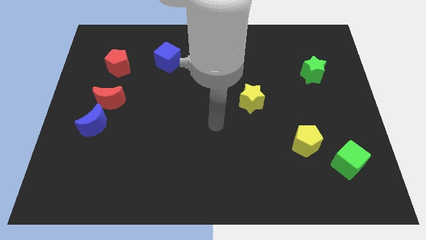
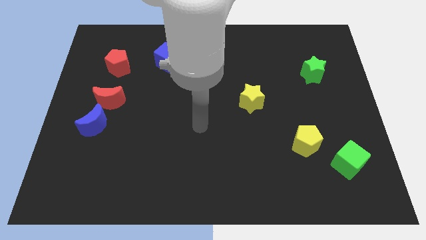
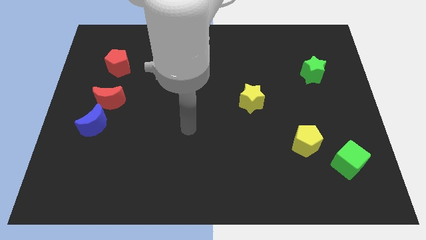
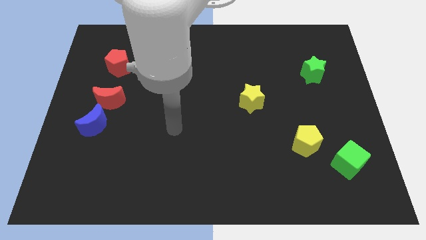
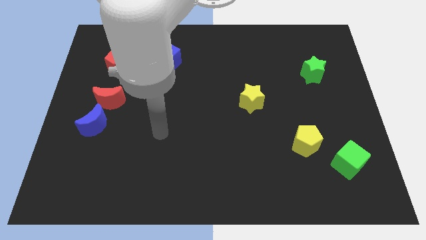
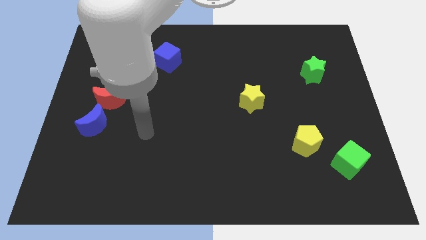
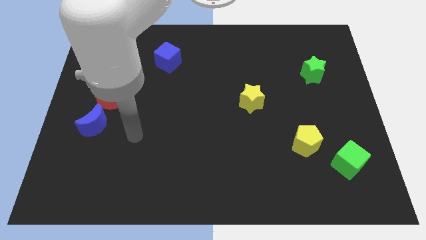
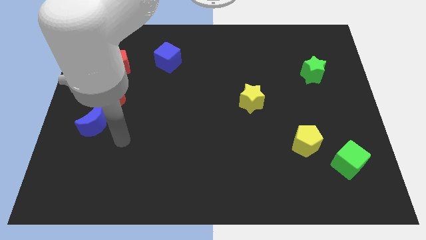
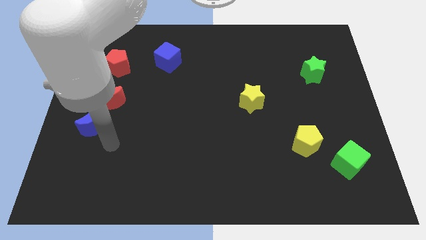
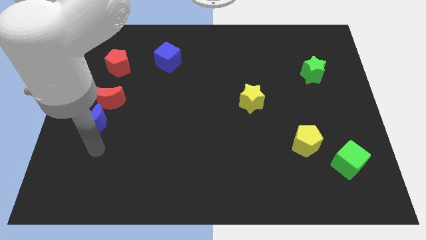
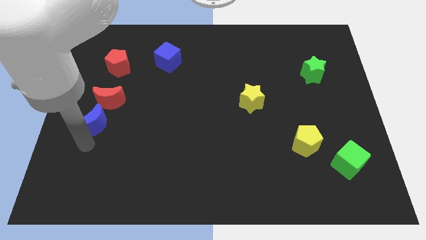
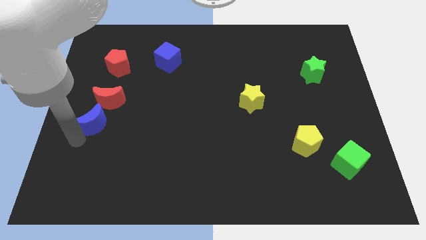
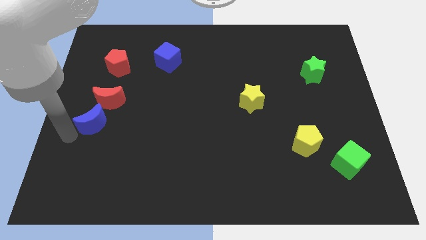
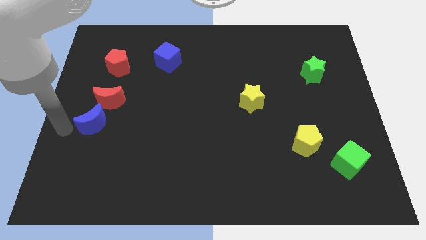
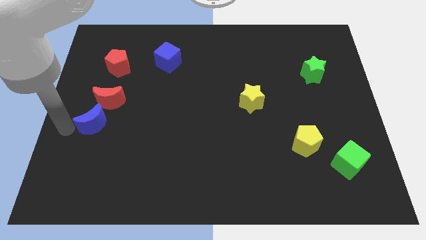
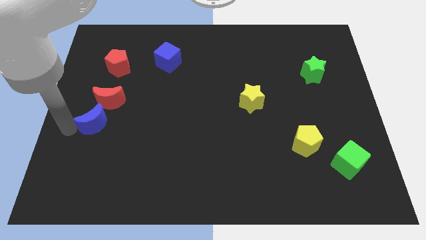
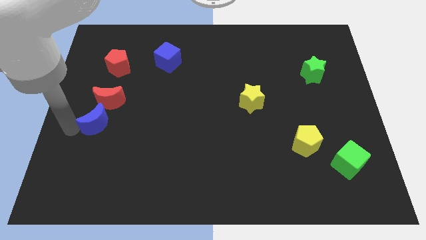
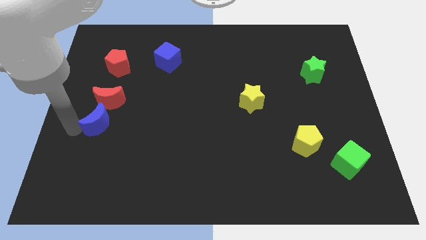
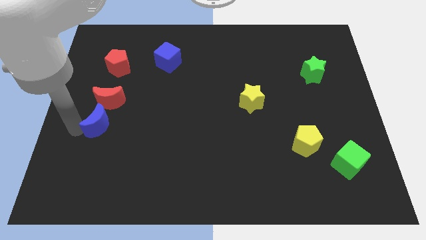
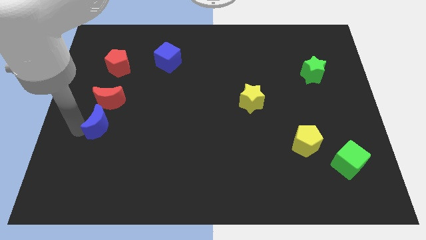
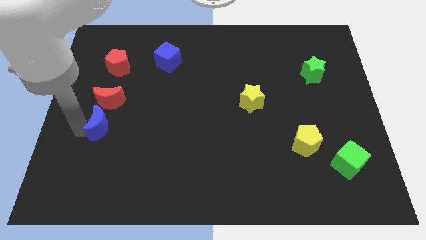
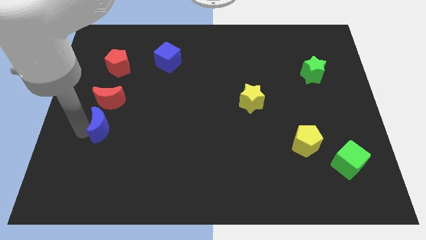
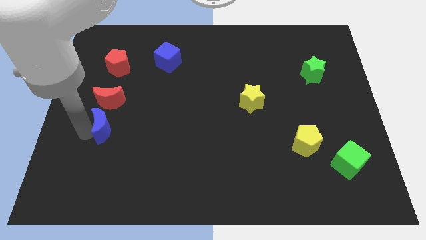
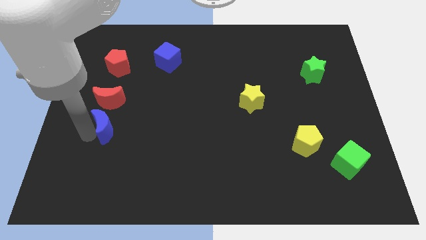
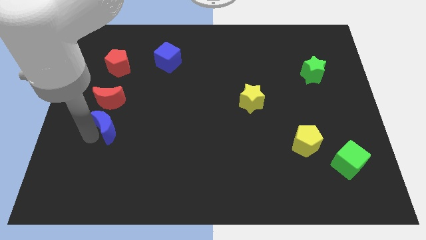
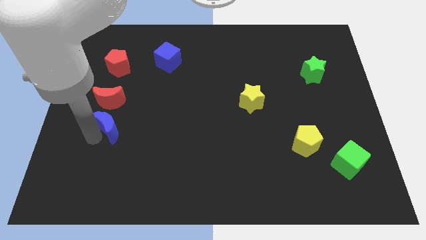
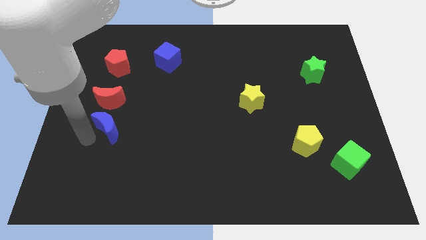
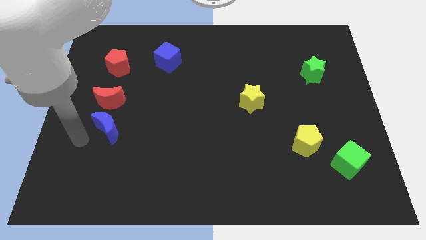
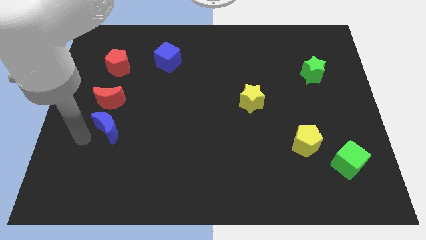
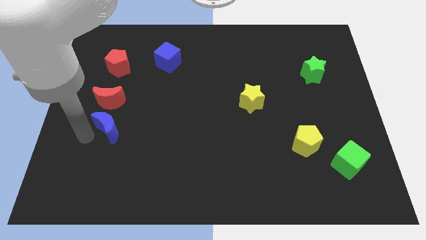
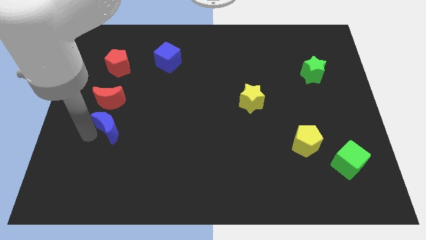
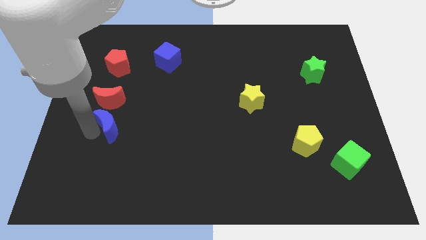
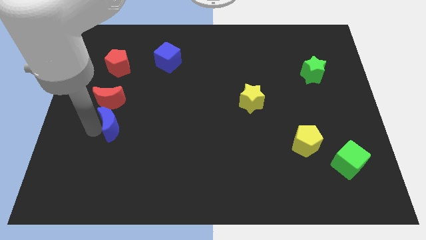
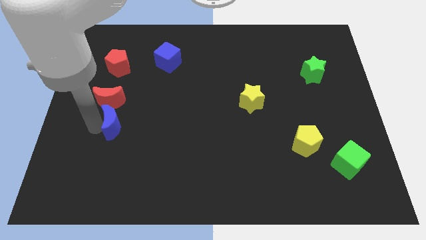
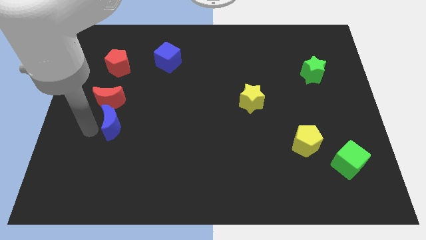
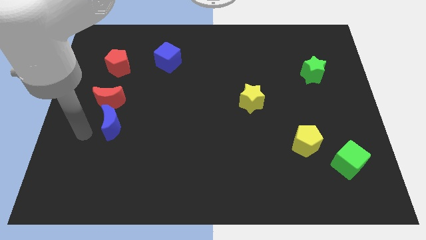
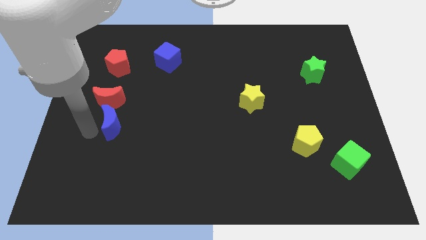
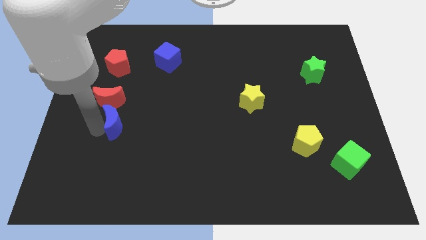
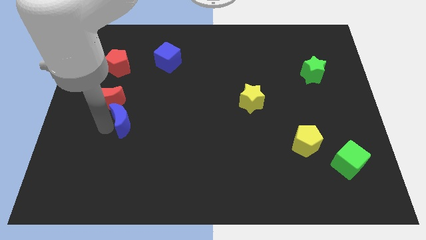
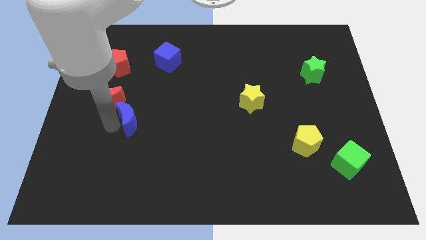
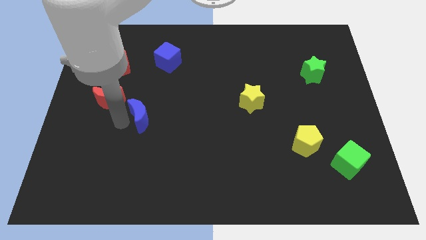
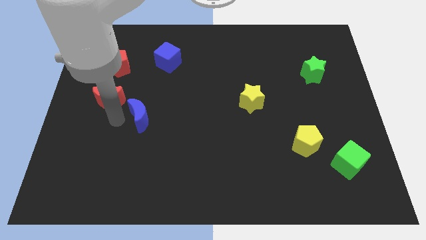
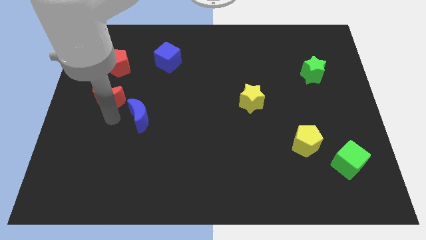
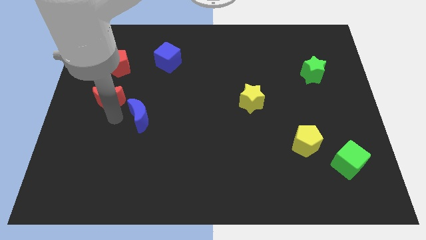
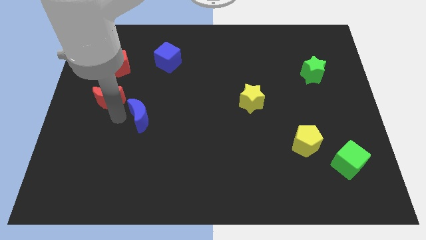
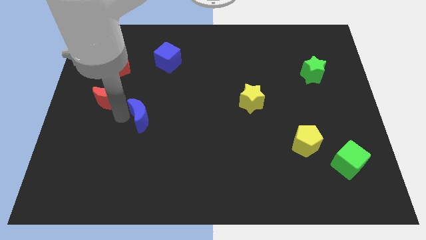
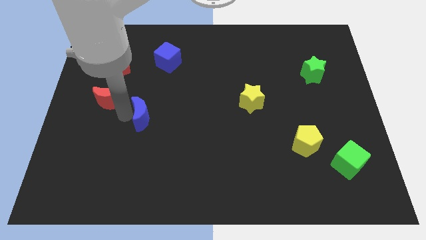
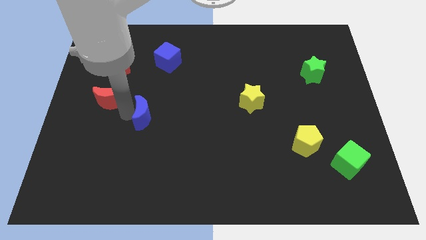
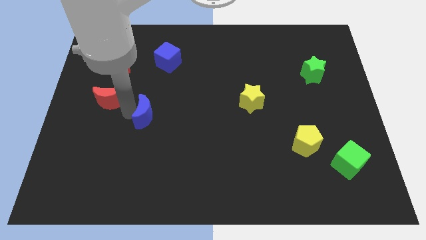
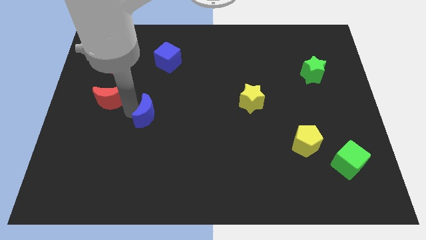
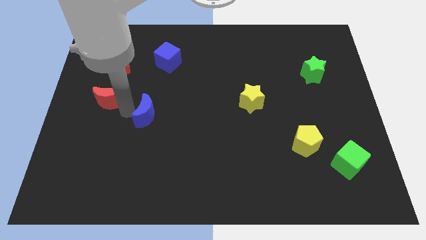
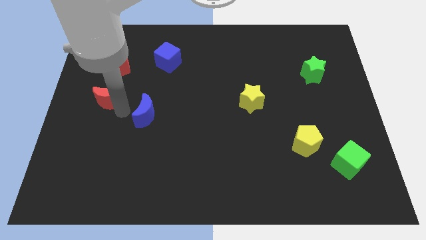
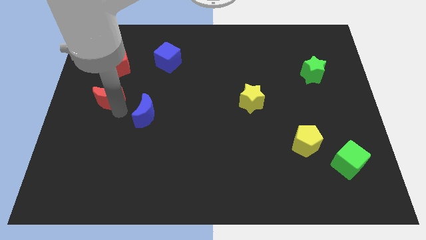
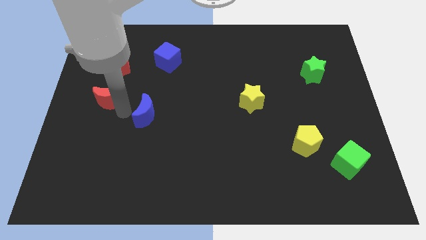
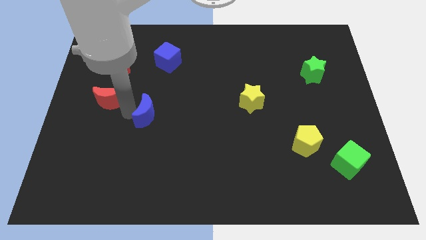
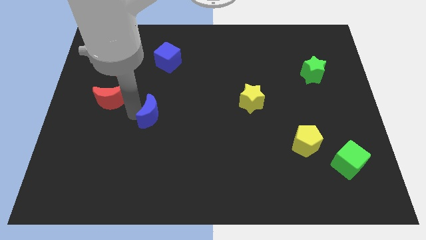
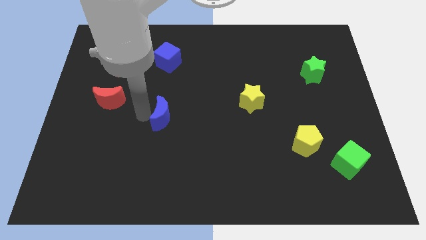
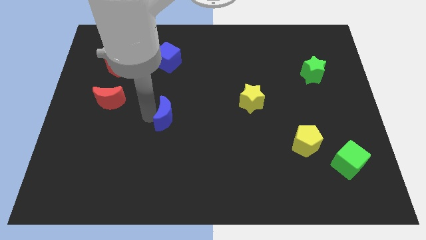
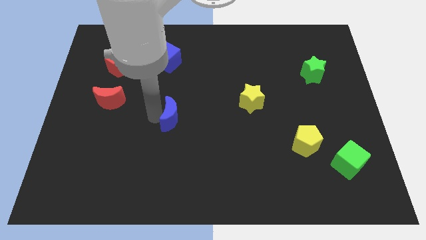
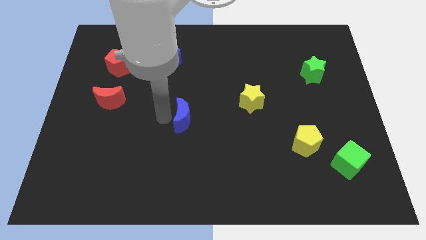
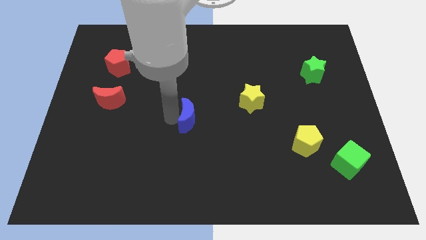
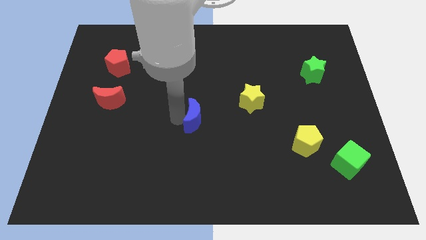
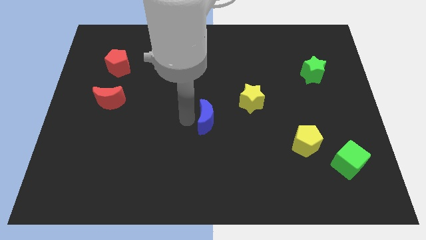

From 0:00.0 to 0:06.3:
slide the blue moon diagonally down and to the left of the yellow star

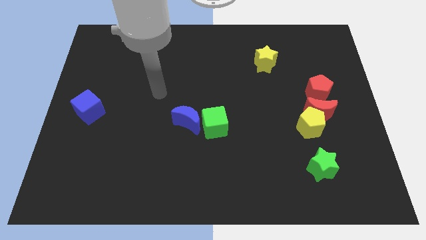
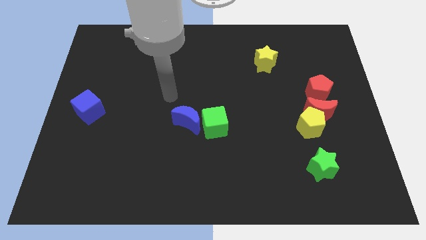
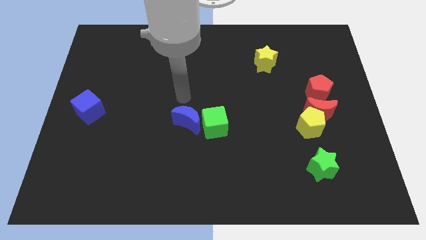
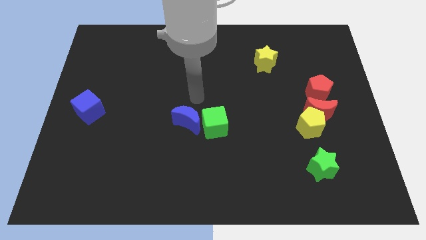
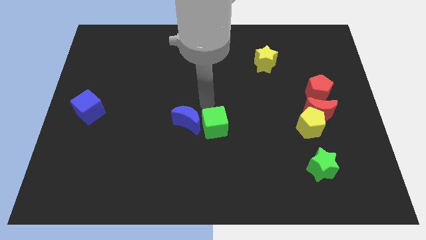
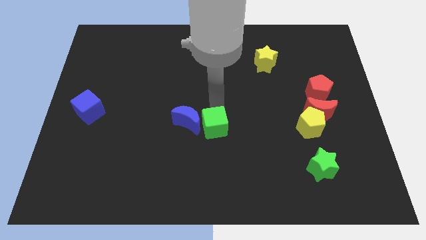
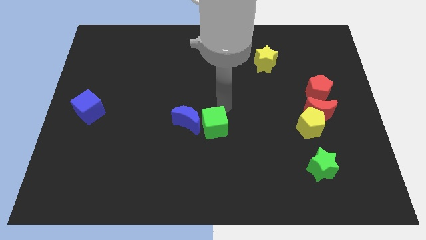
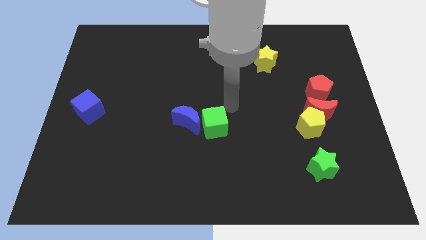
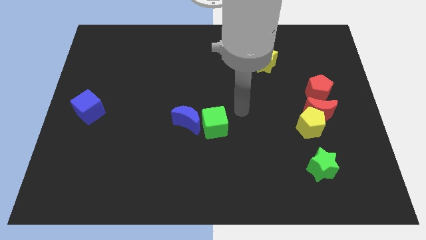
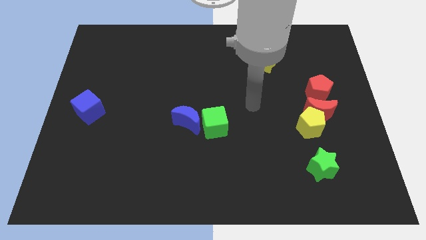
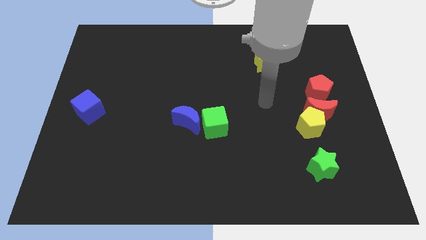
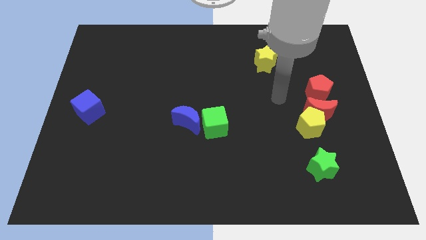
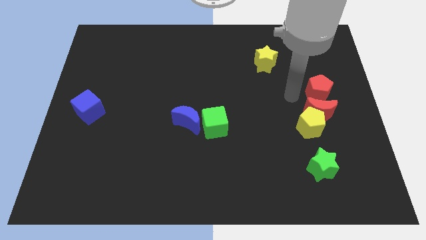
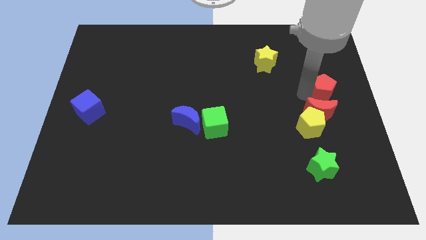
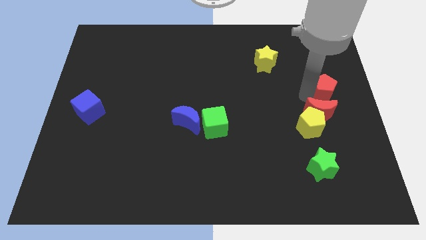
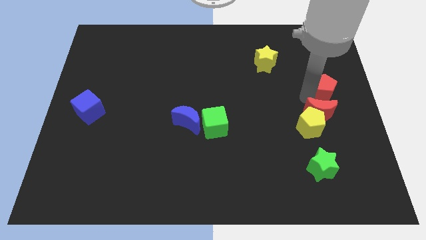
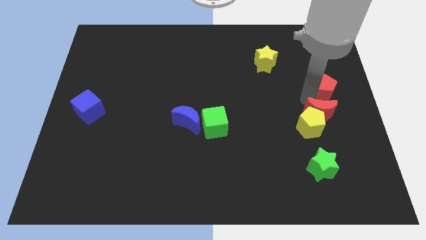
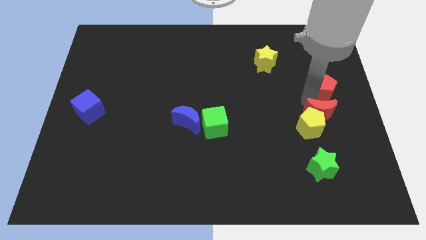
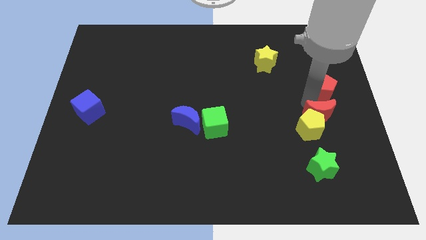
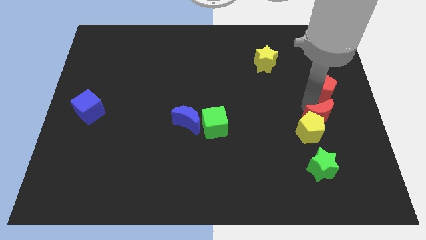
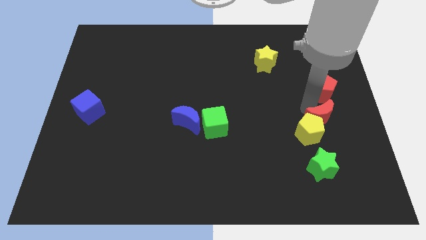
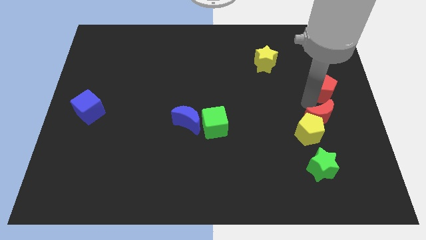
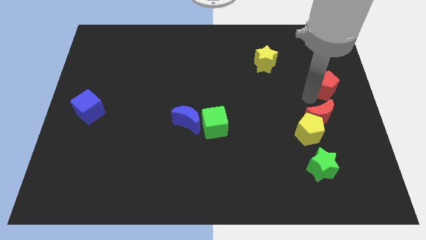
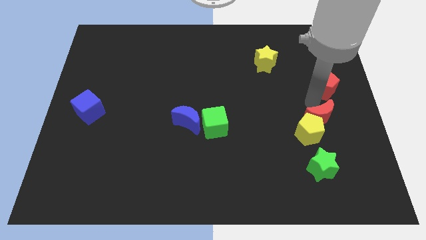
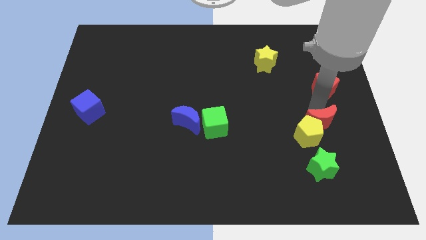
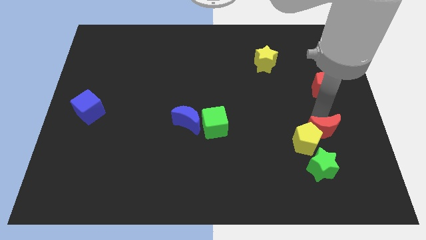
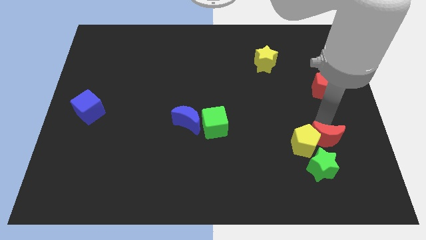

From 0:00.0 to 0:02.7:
push the red moon to the bottom right side of the yellow pentagon
